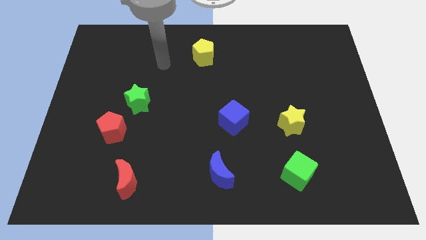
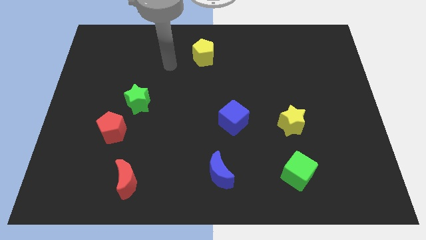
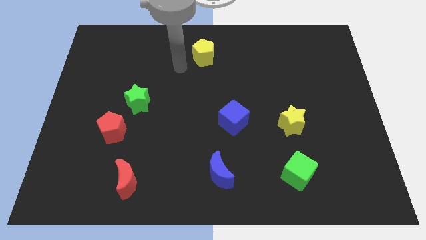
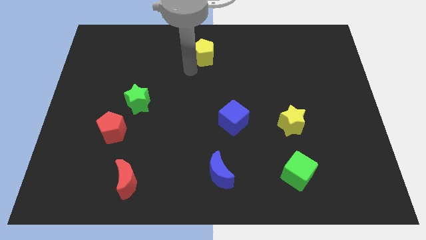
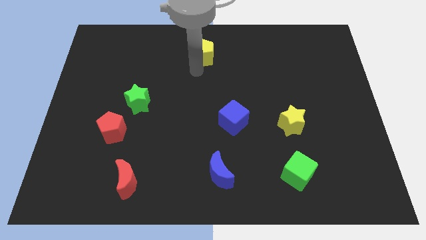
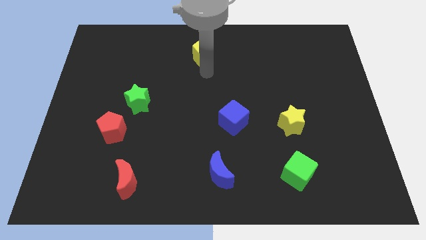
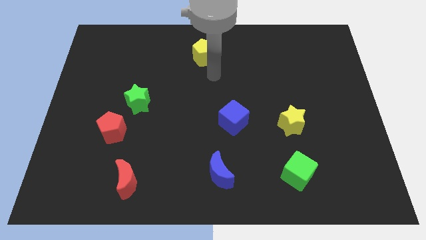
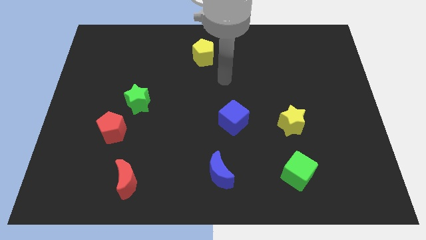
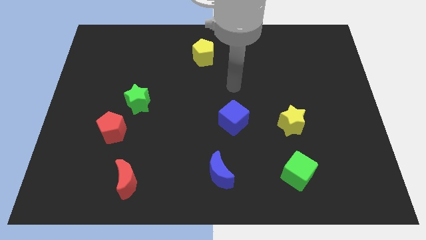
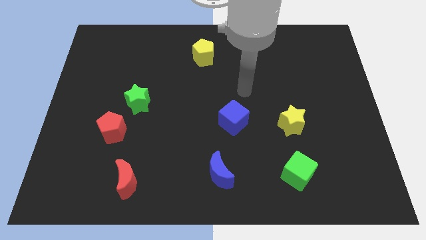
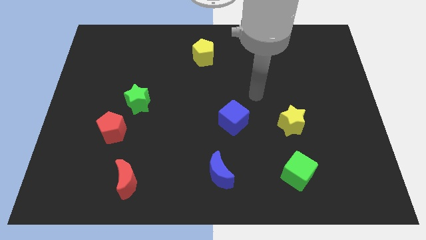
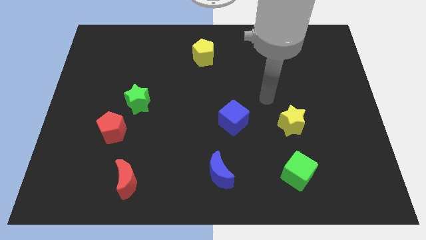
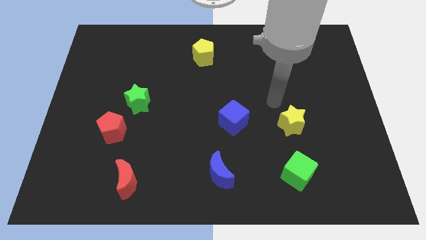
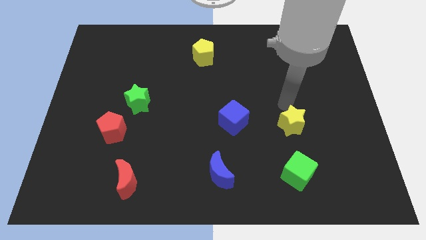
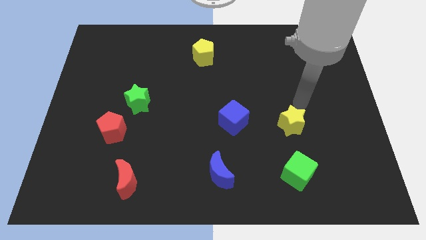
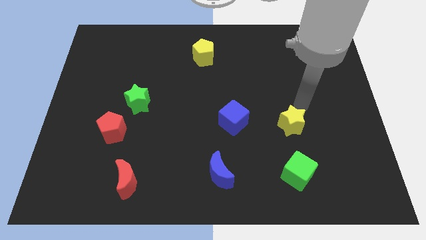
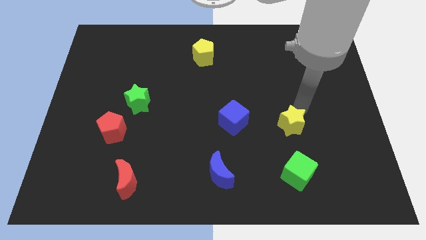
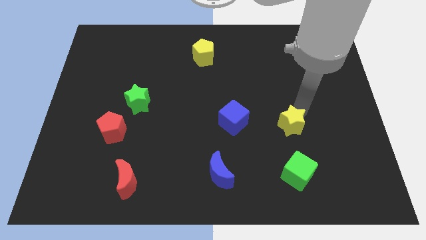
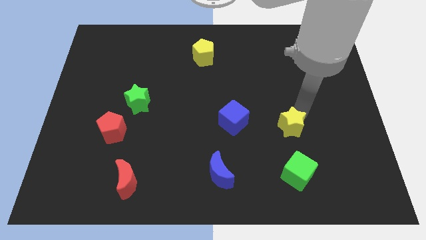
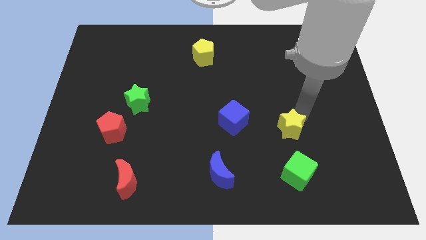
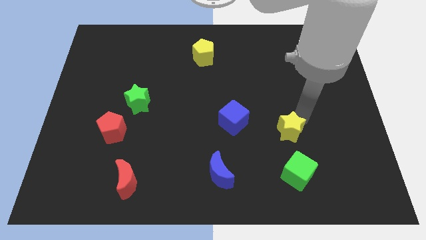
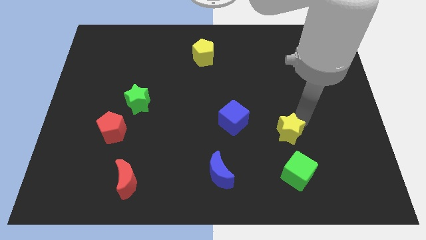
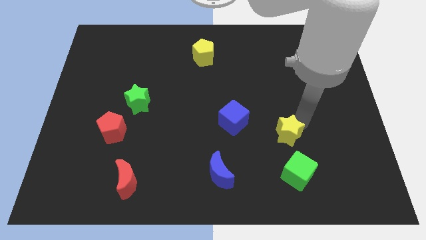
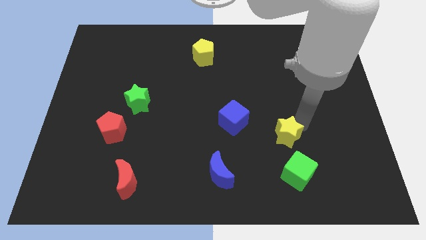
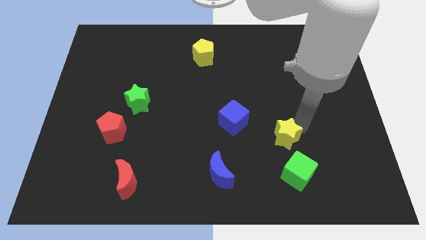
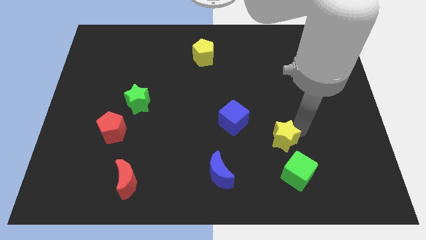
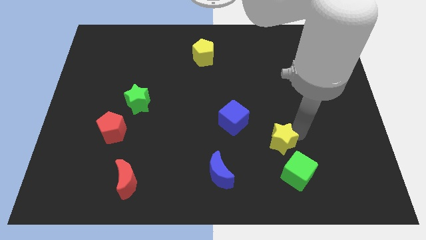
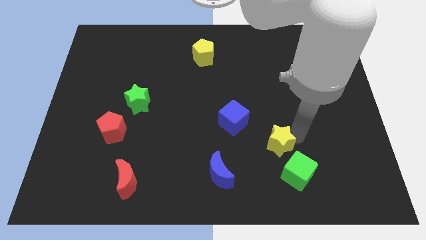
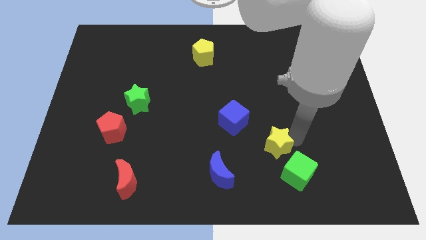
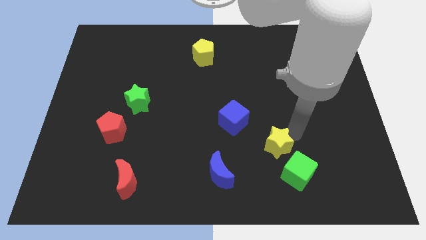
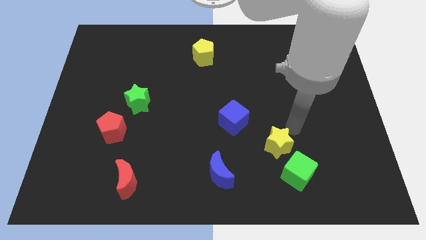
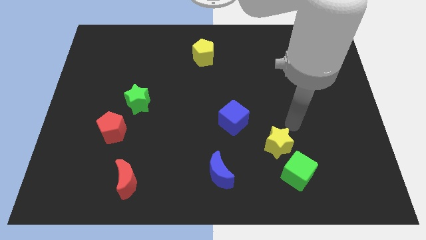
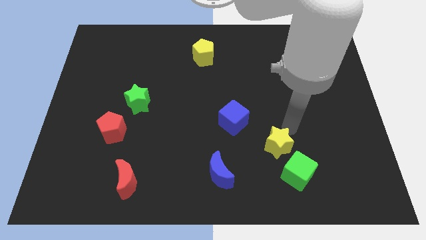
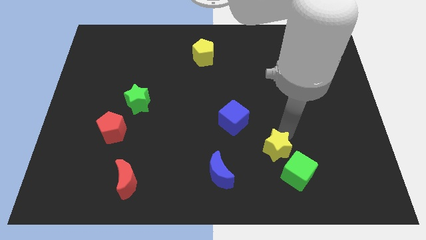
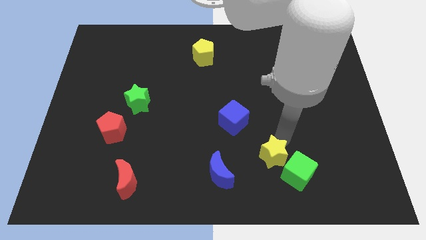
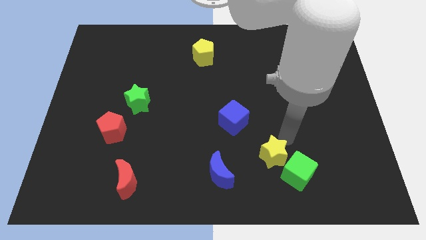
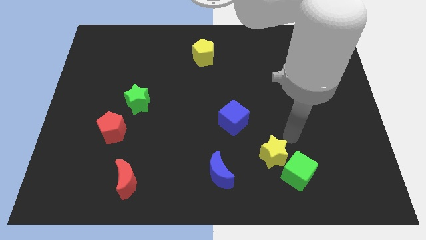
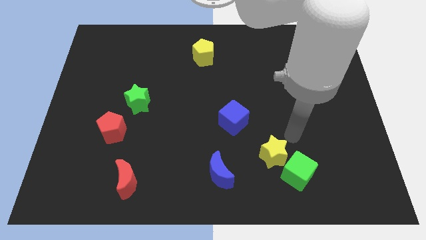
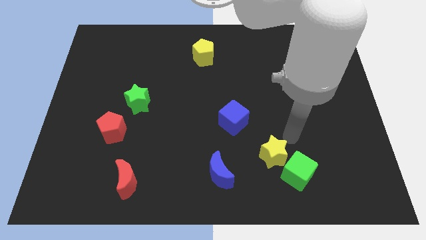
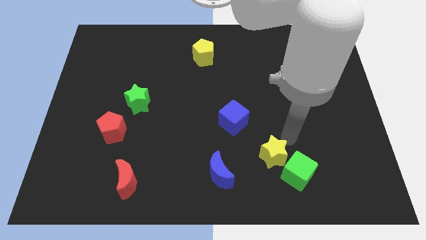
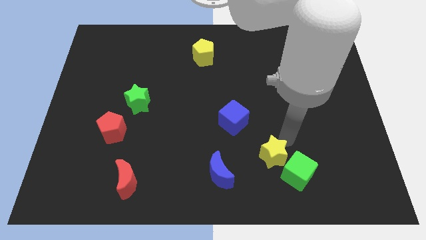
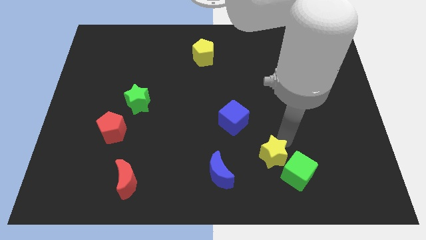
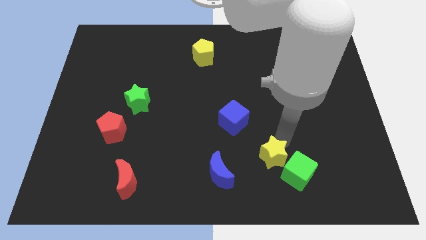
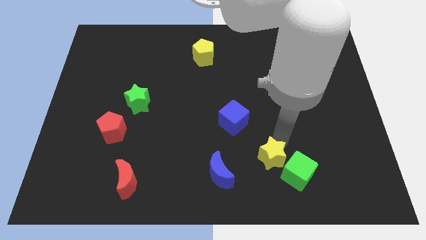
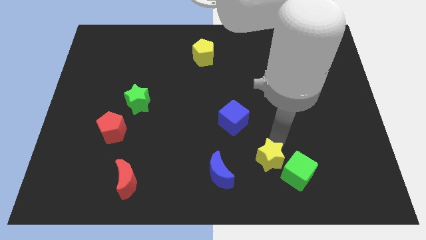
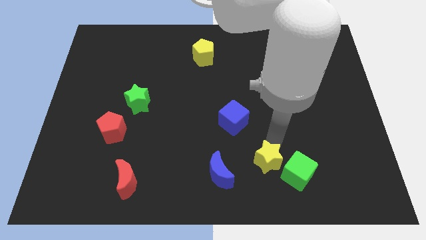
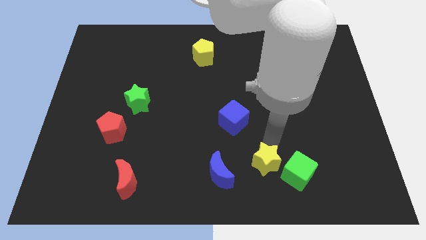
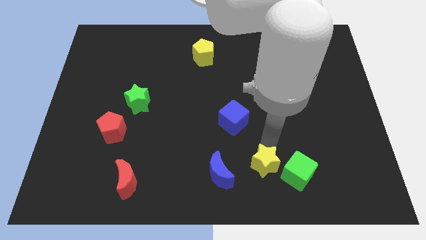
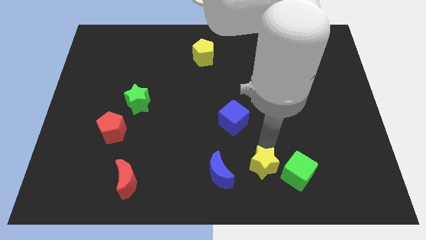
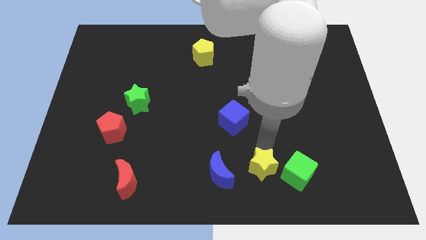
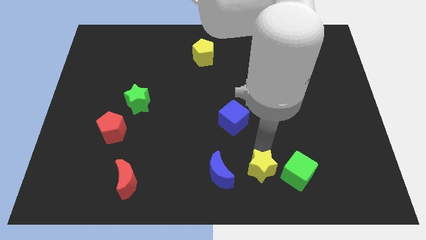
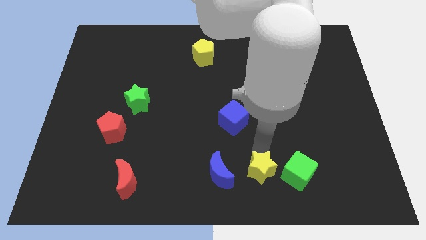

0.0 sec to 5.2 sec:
put the yellow star to the bottom side
